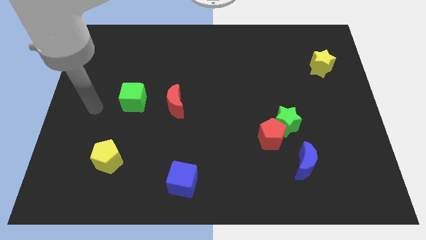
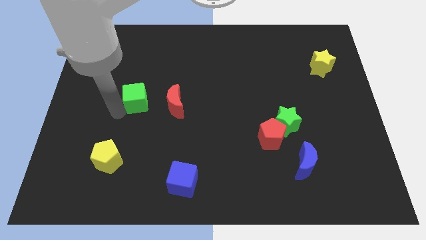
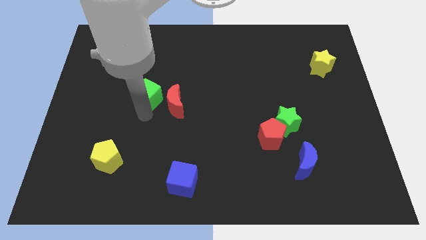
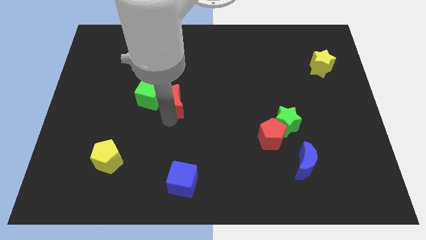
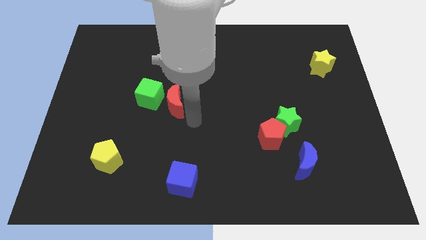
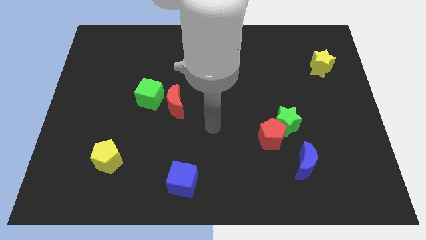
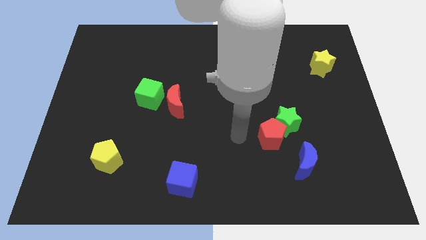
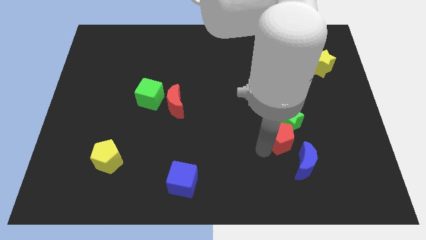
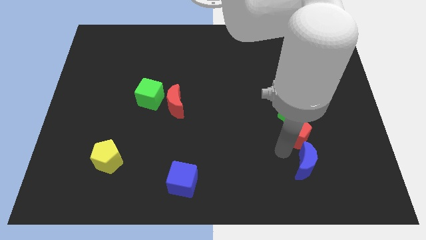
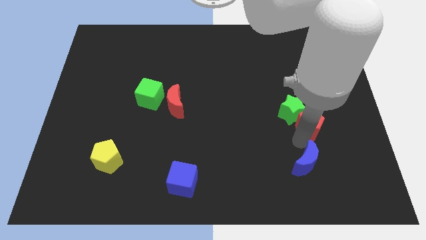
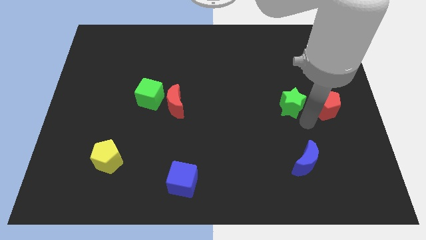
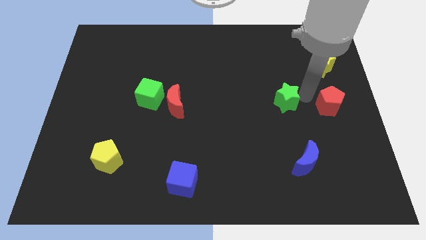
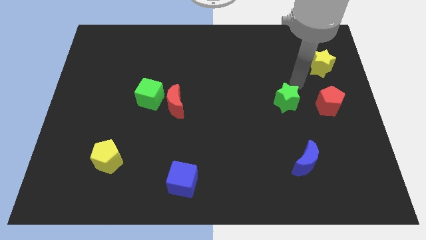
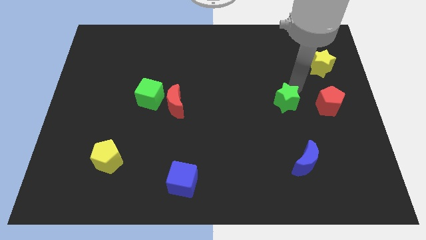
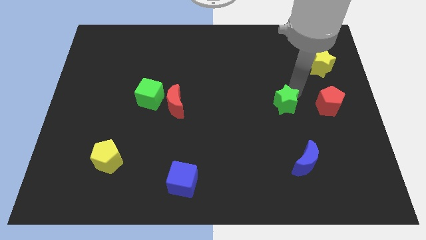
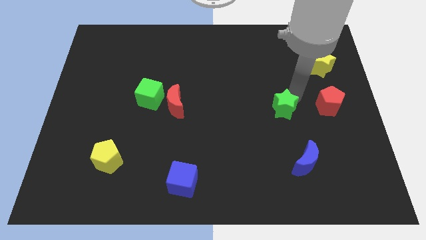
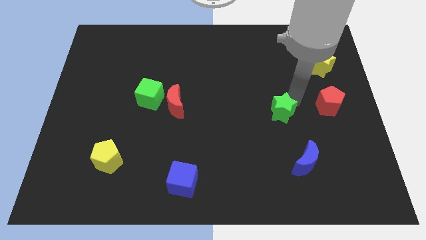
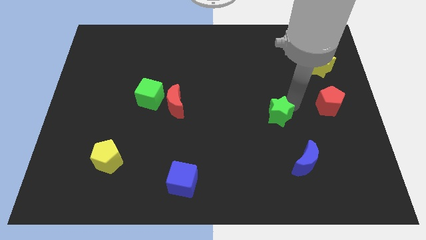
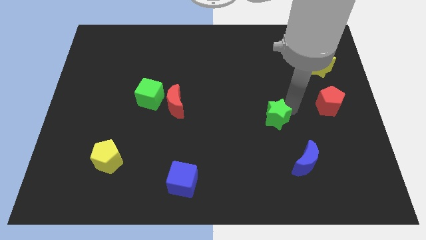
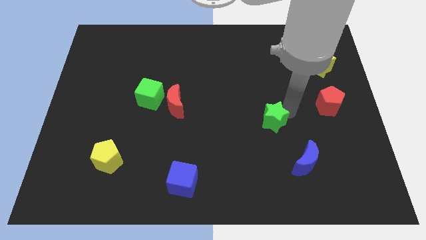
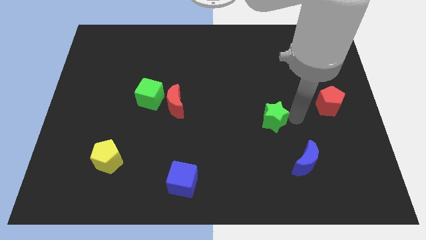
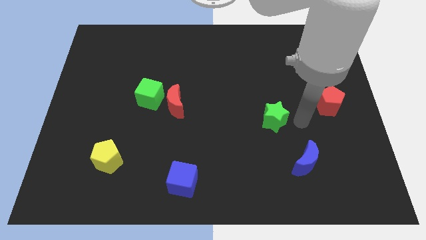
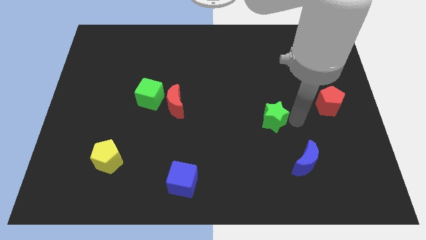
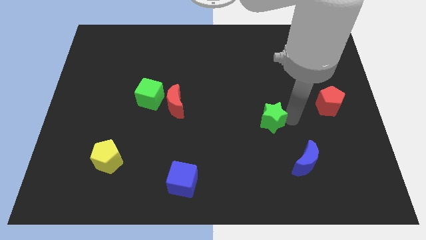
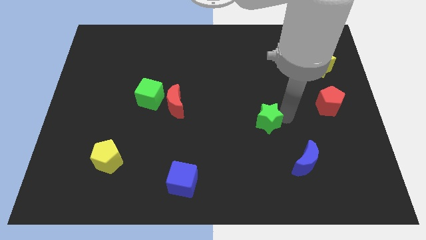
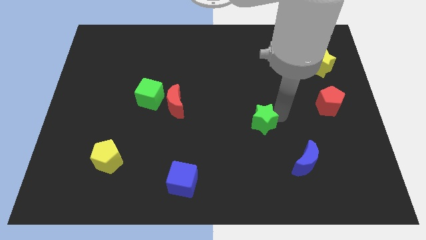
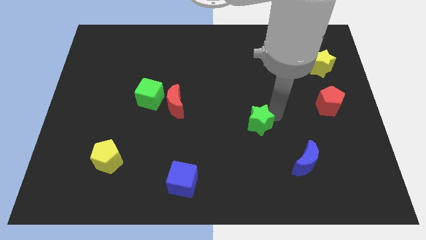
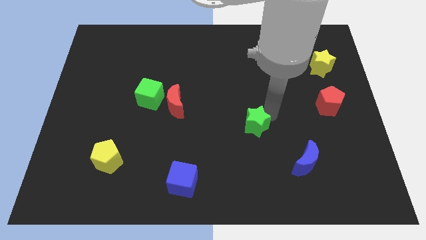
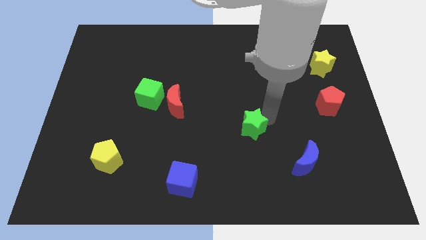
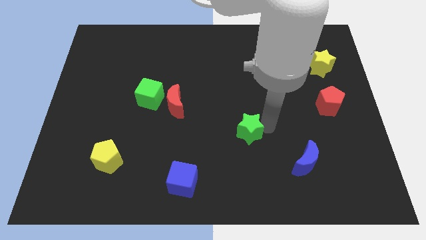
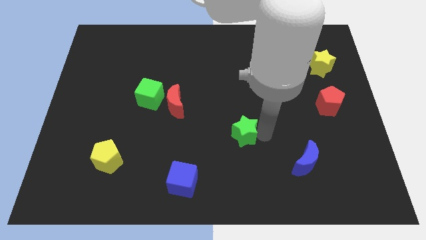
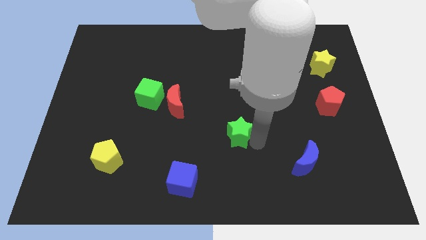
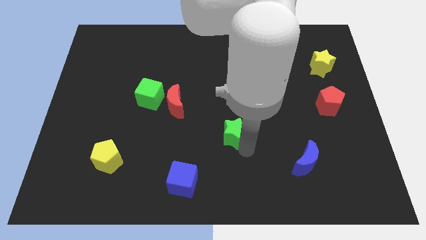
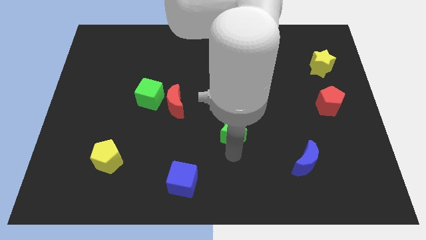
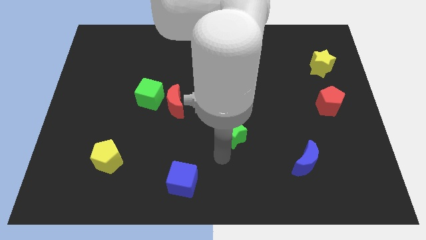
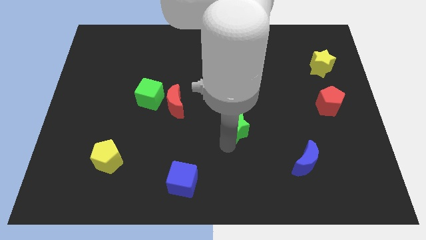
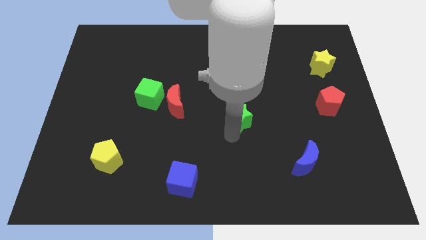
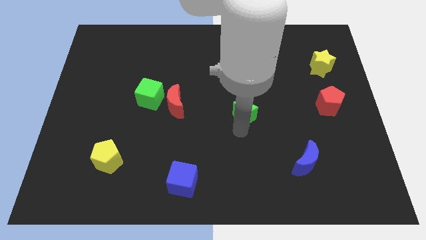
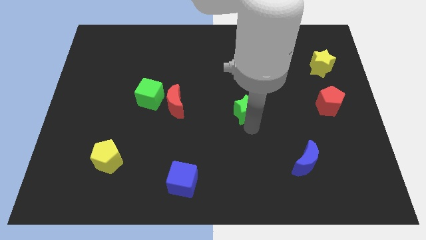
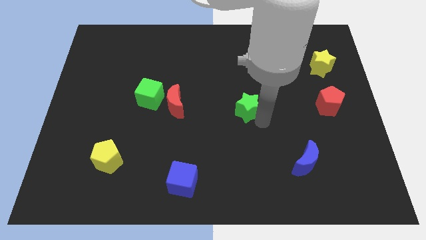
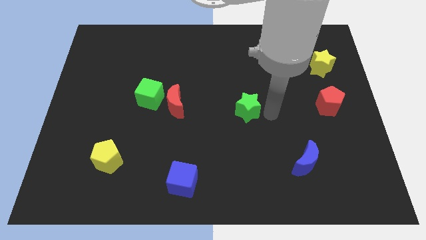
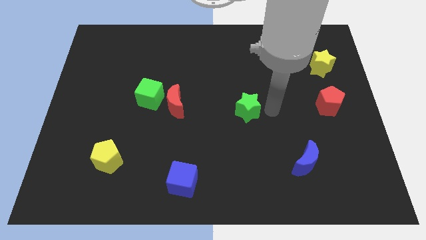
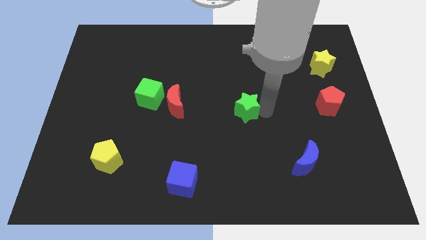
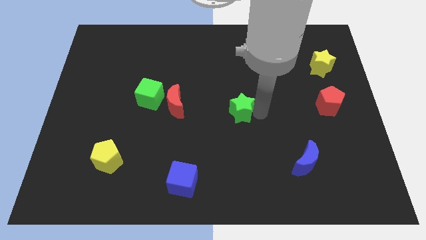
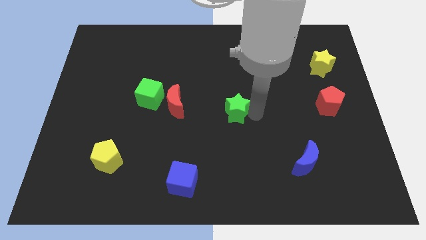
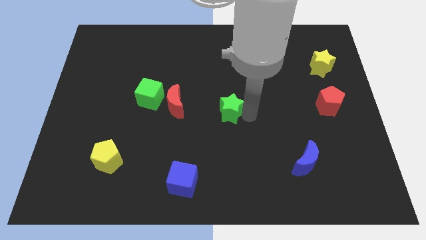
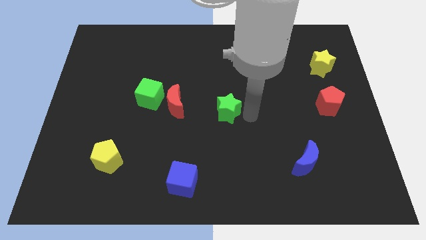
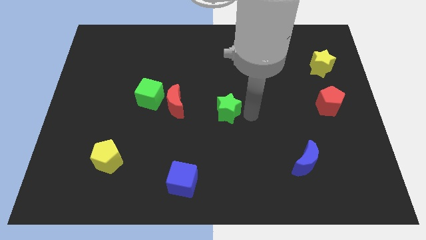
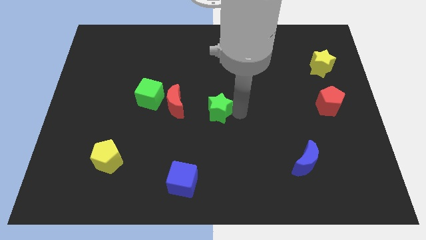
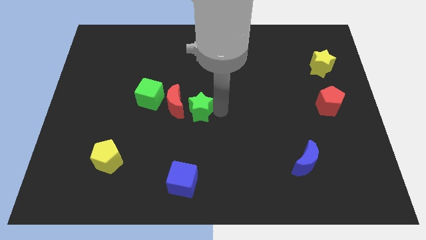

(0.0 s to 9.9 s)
move the green star close to the red moon

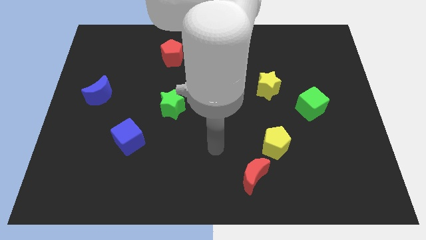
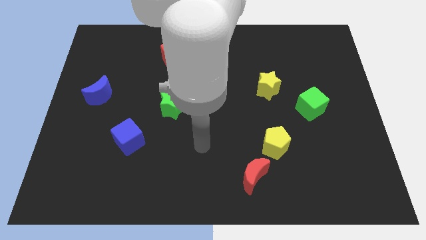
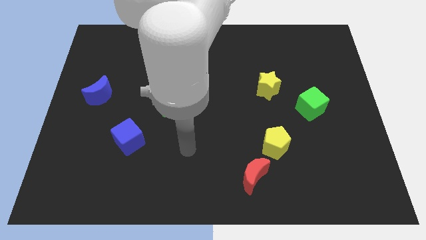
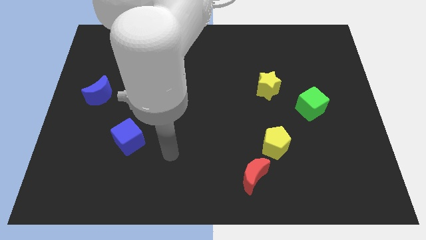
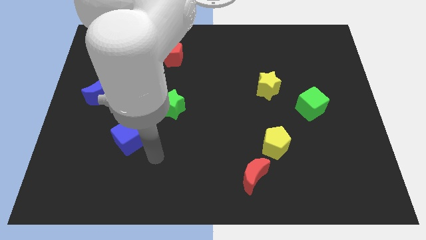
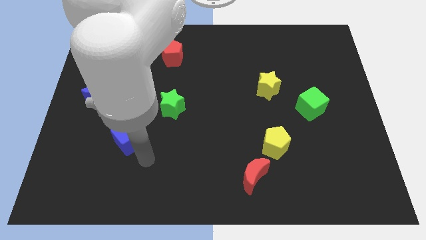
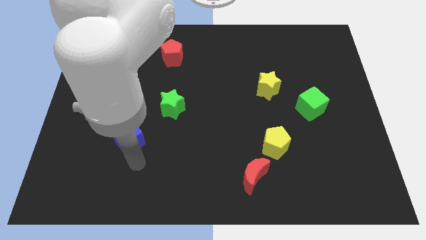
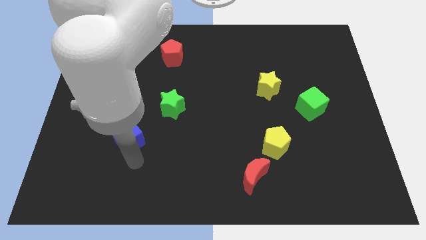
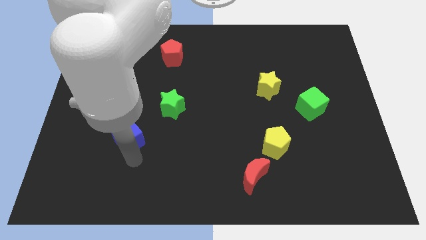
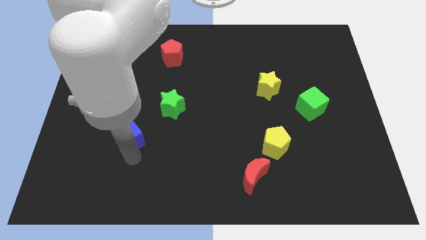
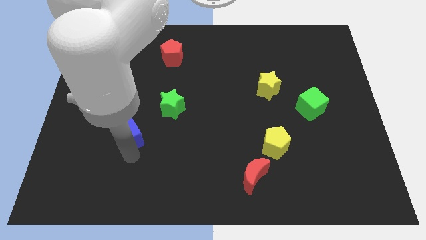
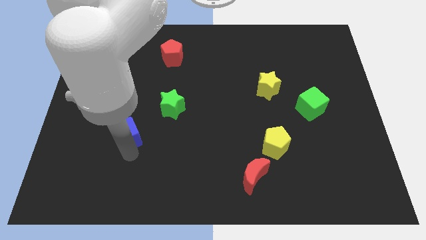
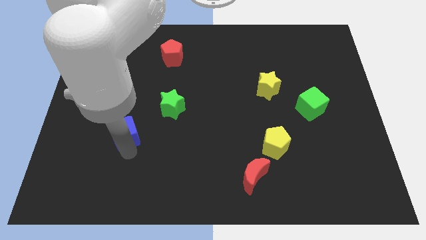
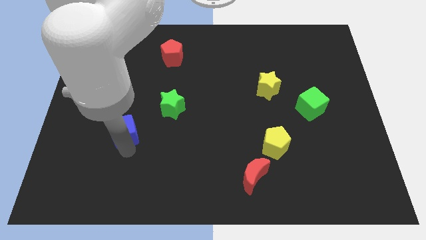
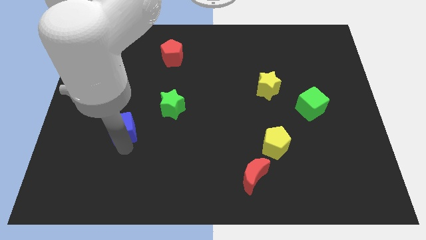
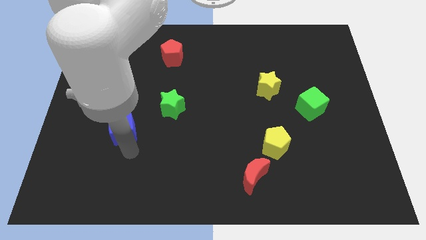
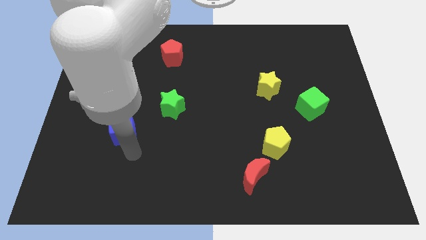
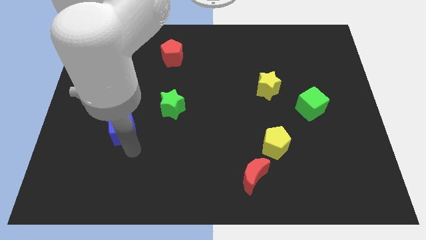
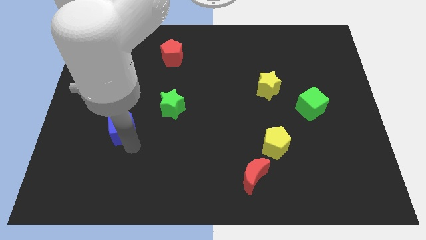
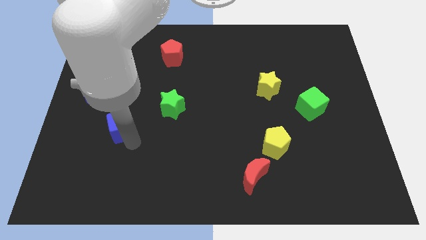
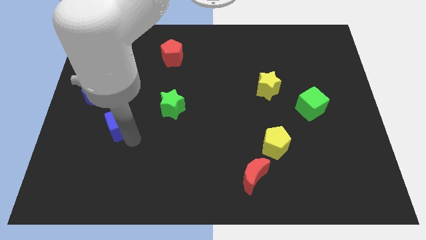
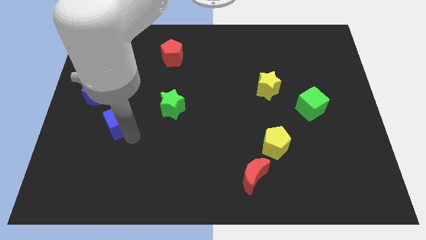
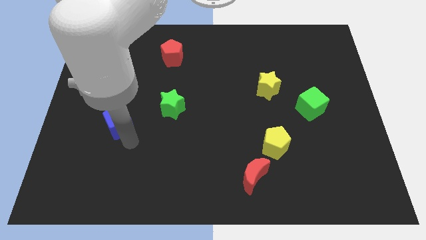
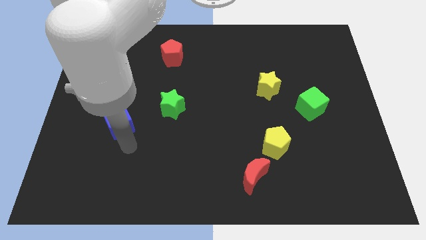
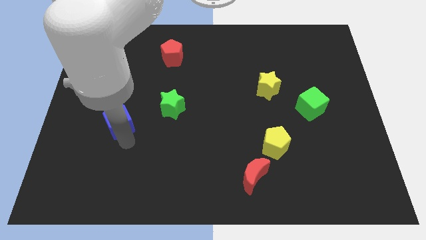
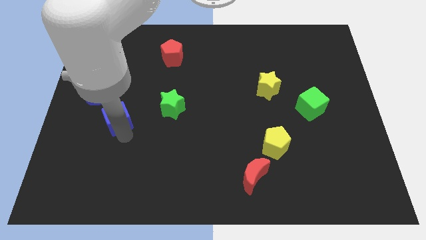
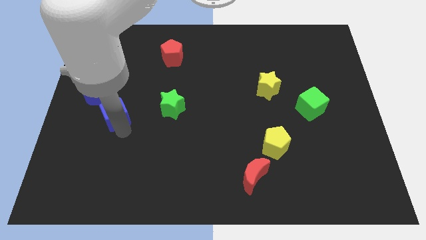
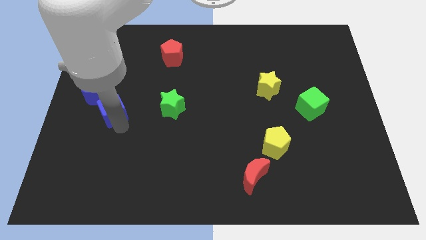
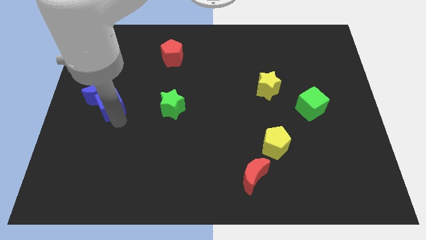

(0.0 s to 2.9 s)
move the blue cube close to the blue moon
